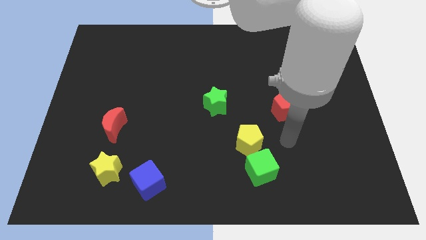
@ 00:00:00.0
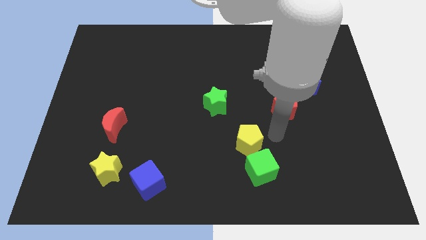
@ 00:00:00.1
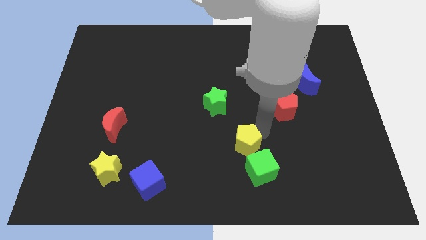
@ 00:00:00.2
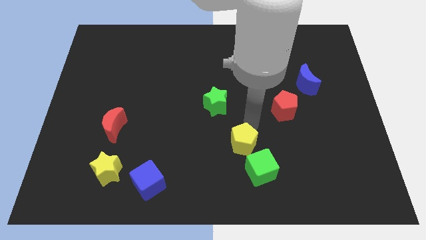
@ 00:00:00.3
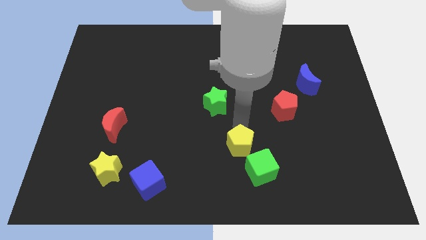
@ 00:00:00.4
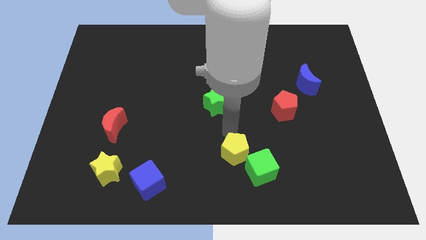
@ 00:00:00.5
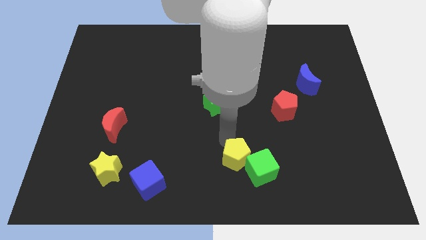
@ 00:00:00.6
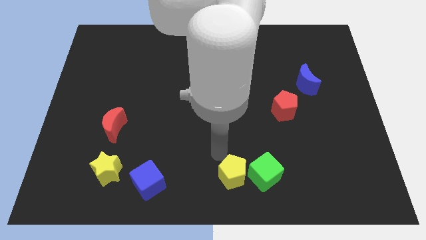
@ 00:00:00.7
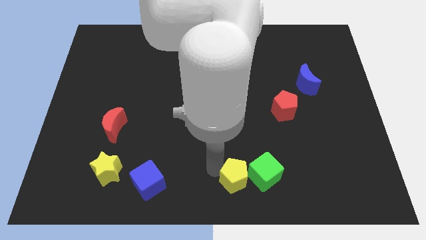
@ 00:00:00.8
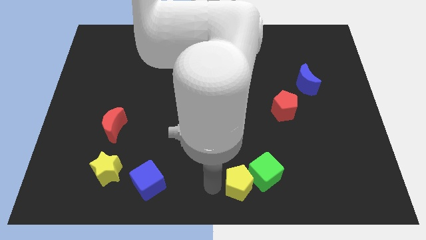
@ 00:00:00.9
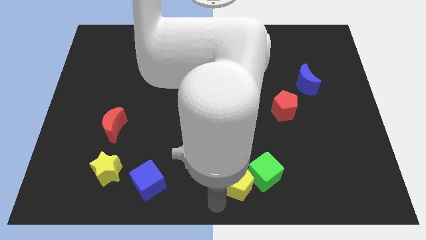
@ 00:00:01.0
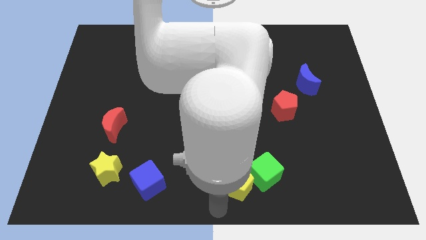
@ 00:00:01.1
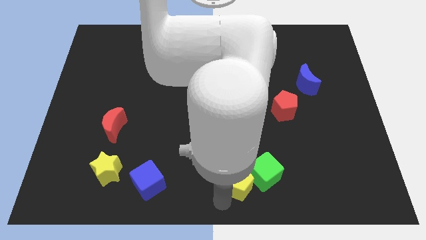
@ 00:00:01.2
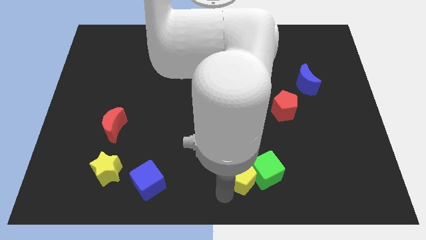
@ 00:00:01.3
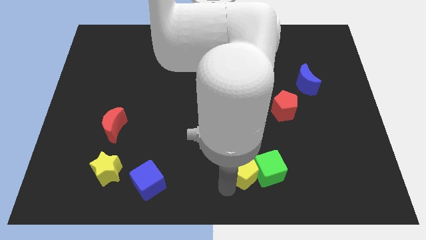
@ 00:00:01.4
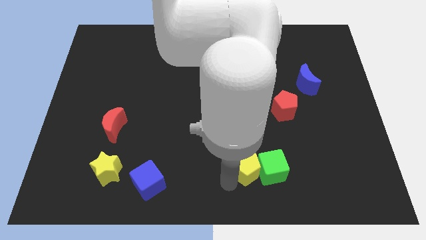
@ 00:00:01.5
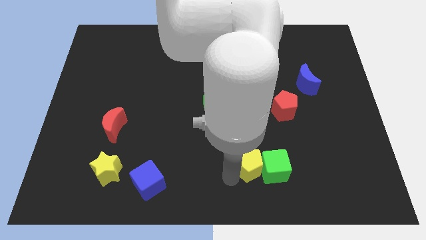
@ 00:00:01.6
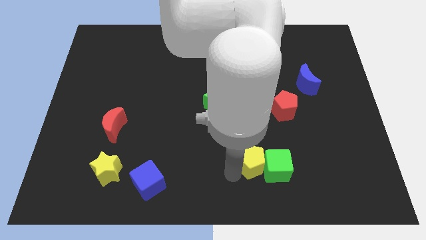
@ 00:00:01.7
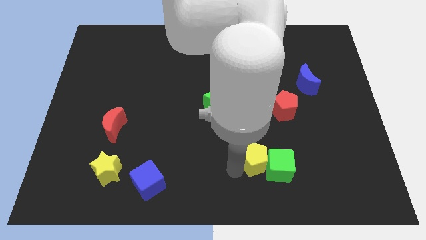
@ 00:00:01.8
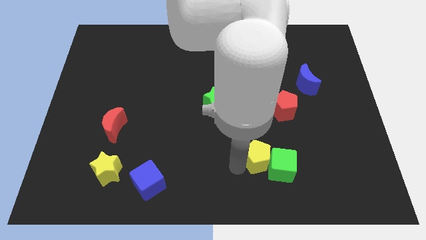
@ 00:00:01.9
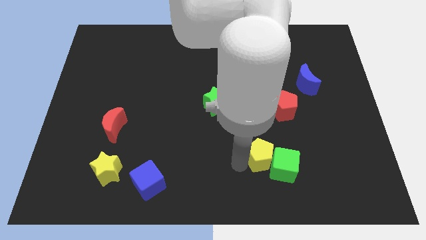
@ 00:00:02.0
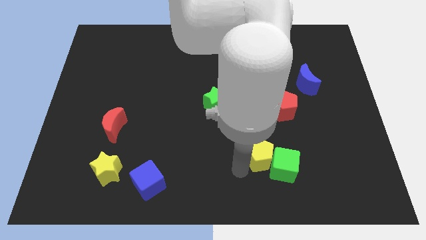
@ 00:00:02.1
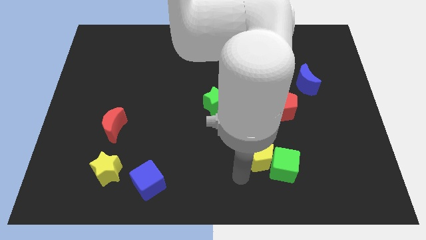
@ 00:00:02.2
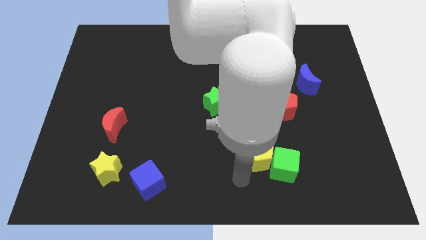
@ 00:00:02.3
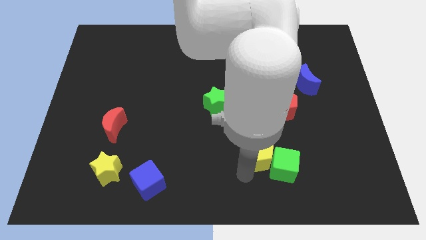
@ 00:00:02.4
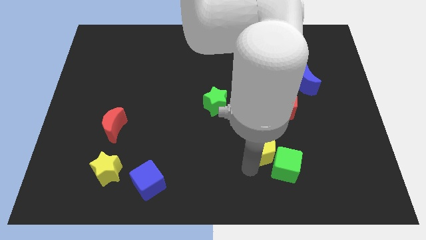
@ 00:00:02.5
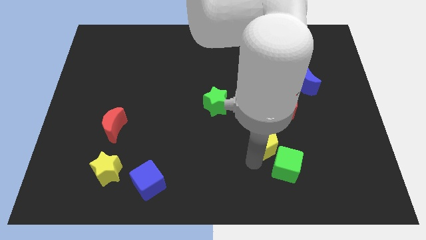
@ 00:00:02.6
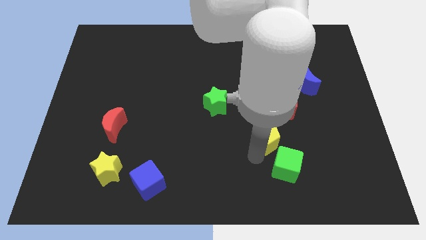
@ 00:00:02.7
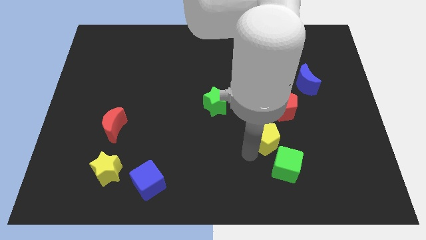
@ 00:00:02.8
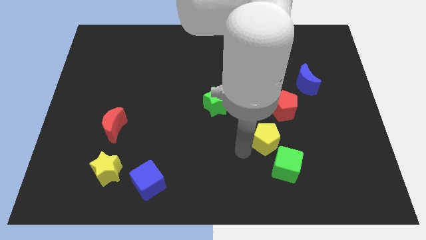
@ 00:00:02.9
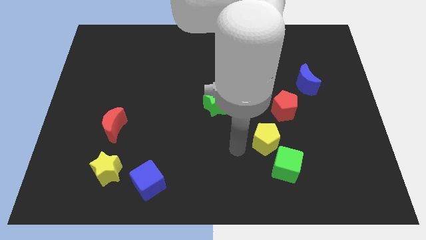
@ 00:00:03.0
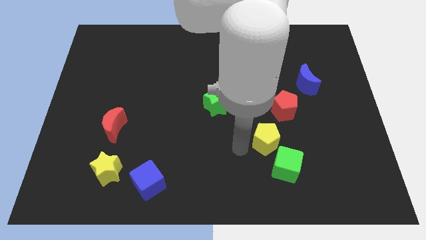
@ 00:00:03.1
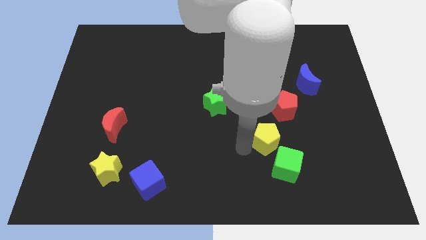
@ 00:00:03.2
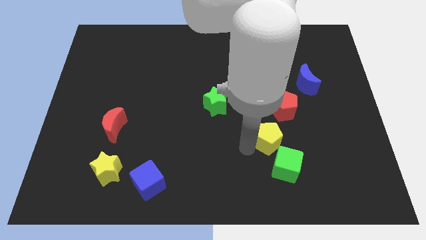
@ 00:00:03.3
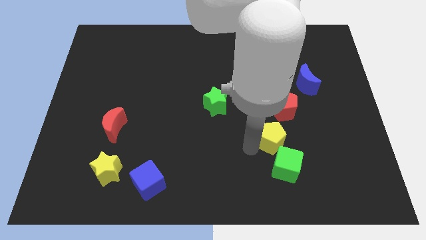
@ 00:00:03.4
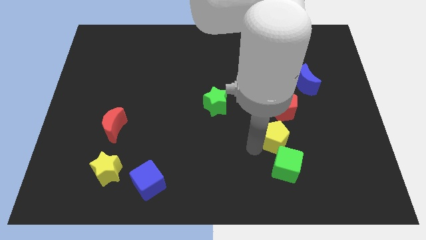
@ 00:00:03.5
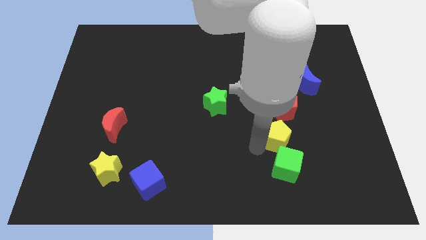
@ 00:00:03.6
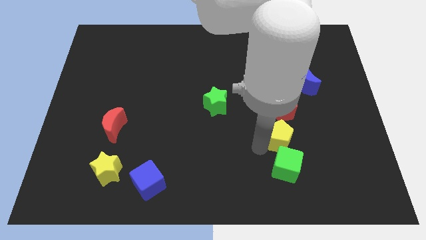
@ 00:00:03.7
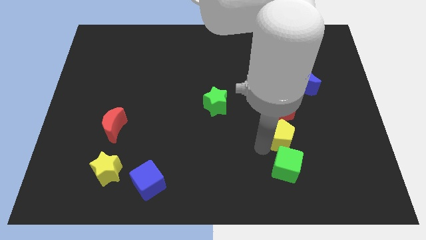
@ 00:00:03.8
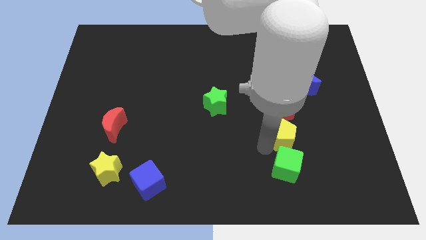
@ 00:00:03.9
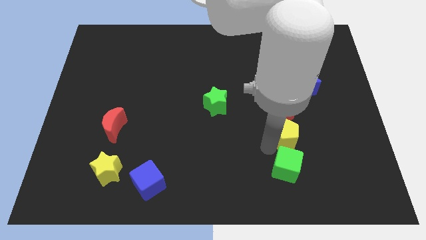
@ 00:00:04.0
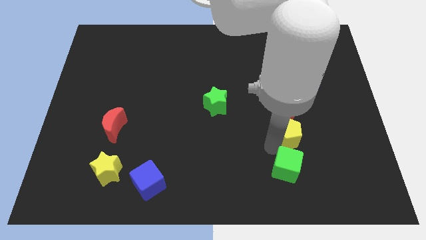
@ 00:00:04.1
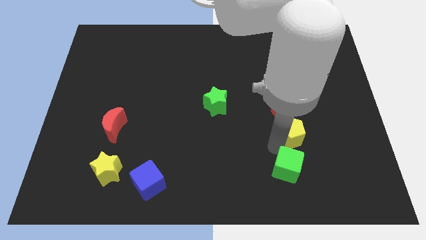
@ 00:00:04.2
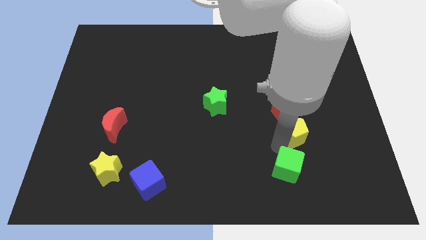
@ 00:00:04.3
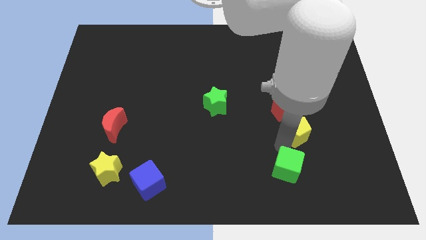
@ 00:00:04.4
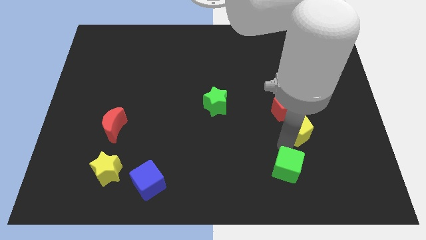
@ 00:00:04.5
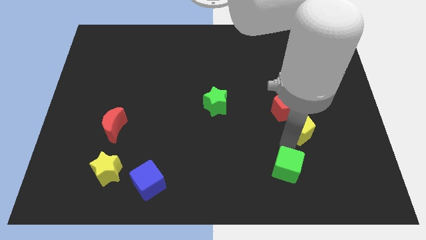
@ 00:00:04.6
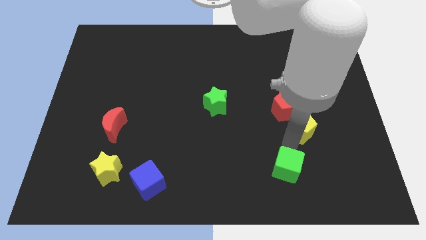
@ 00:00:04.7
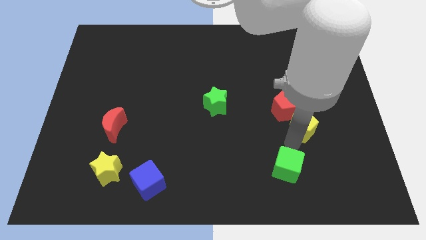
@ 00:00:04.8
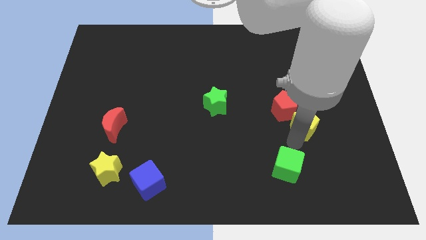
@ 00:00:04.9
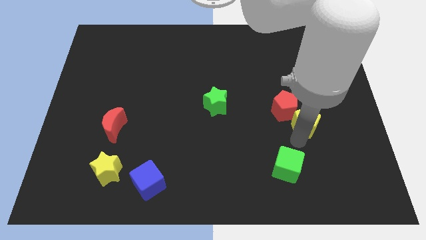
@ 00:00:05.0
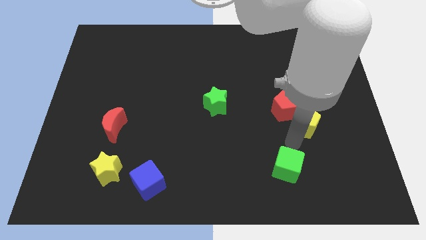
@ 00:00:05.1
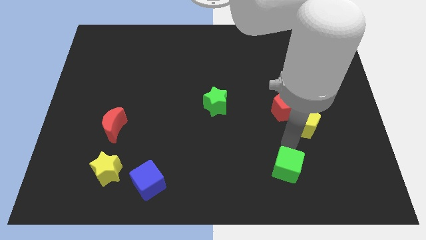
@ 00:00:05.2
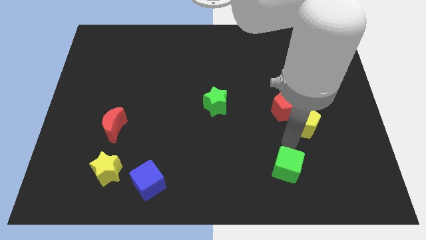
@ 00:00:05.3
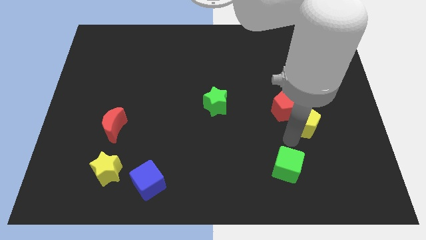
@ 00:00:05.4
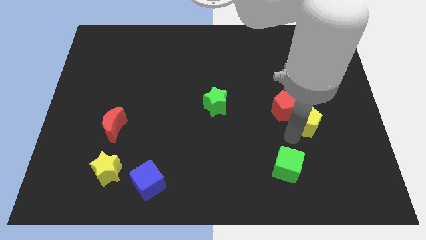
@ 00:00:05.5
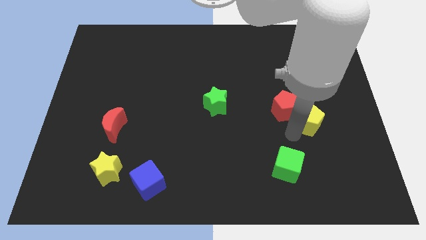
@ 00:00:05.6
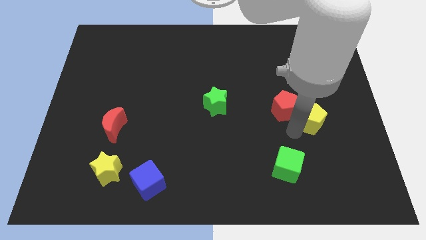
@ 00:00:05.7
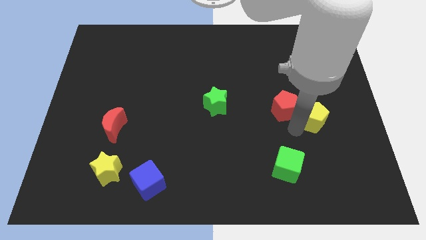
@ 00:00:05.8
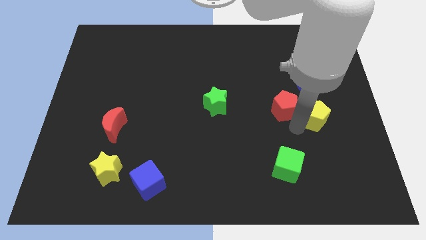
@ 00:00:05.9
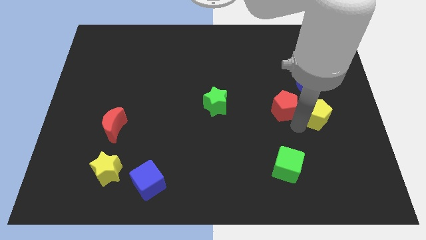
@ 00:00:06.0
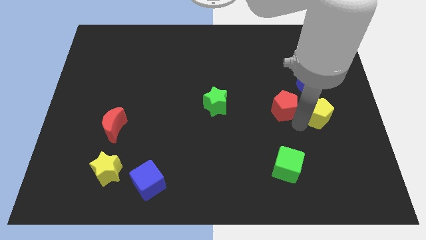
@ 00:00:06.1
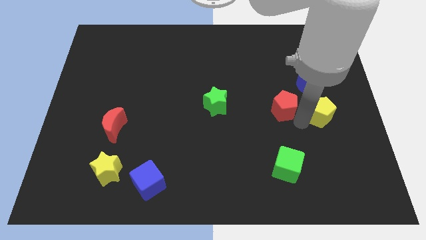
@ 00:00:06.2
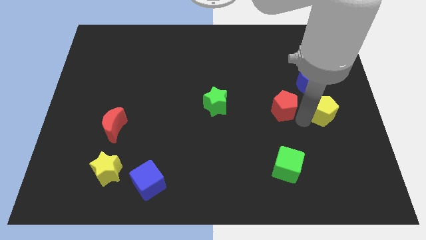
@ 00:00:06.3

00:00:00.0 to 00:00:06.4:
slide the yellow pentagon to the bottom right side of the blue moon
